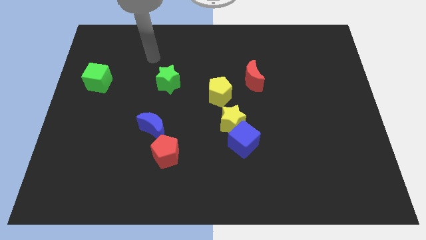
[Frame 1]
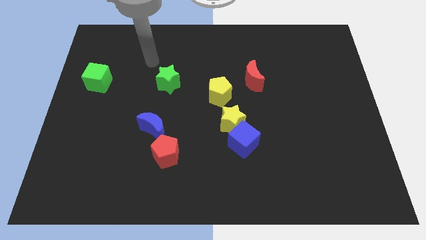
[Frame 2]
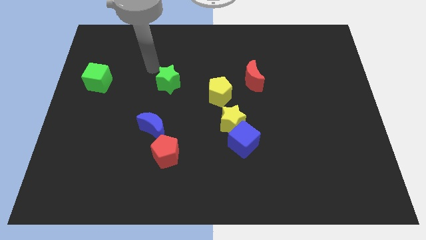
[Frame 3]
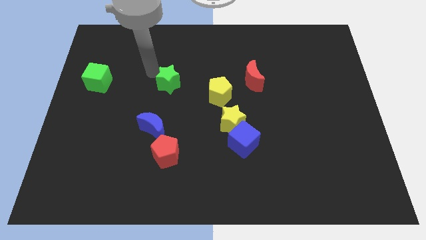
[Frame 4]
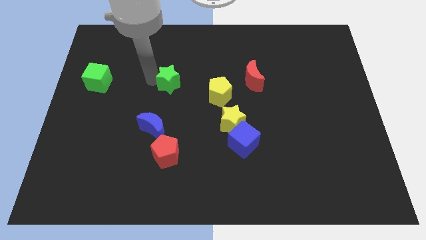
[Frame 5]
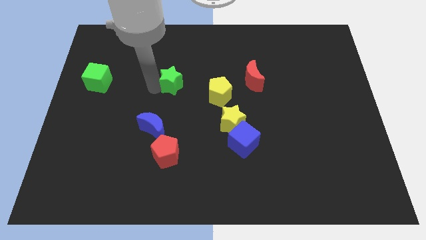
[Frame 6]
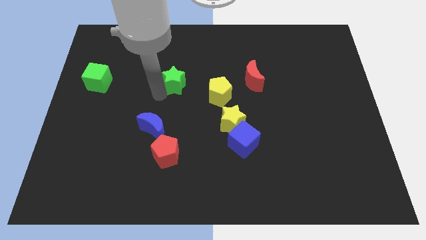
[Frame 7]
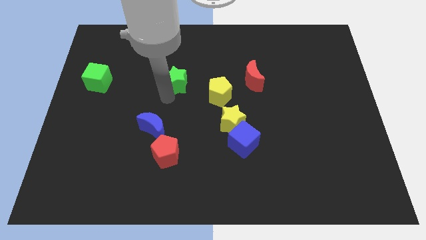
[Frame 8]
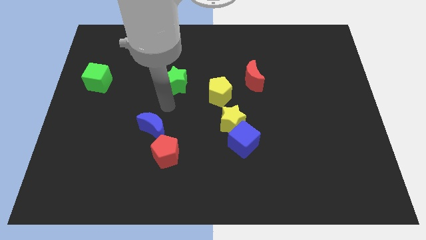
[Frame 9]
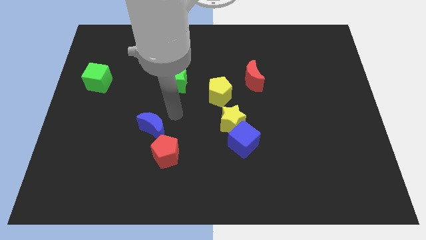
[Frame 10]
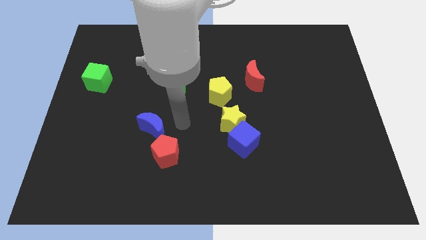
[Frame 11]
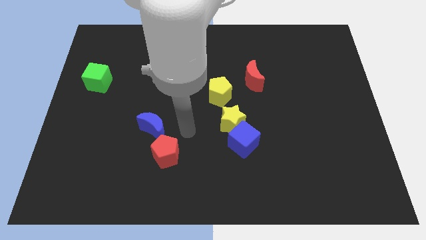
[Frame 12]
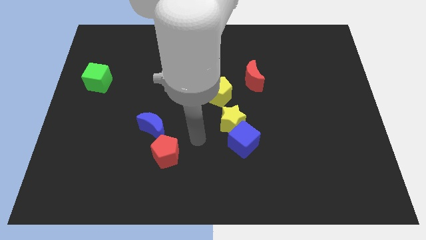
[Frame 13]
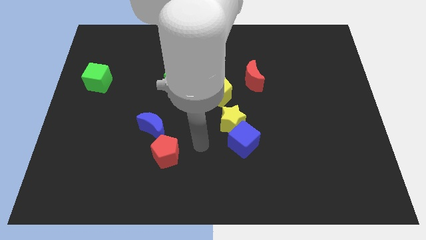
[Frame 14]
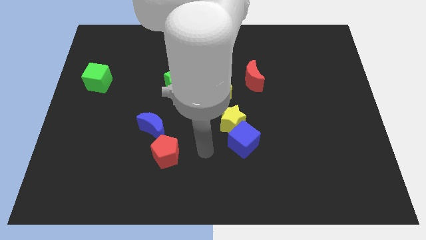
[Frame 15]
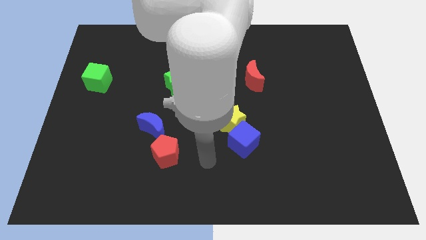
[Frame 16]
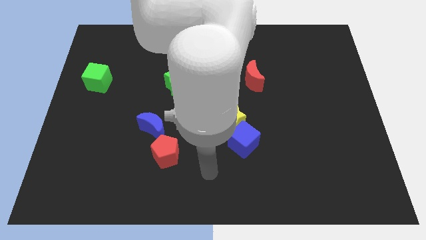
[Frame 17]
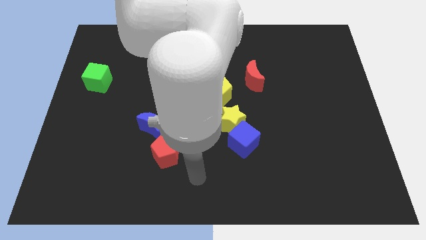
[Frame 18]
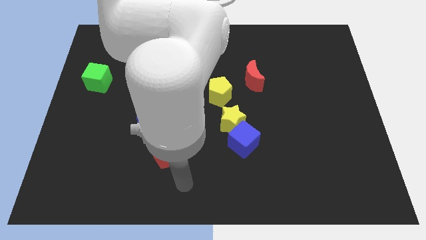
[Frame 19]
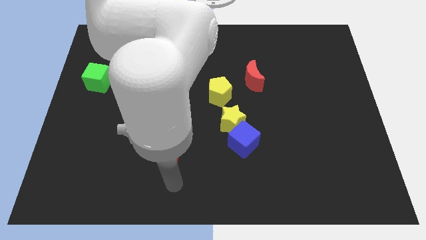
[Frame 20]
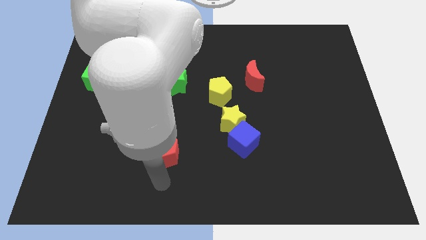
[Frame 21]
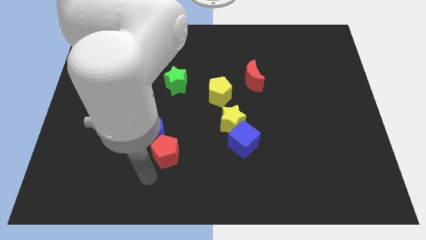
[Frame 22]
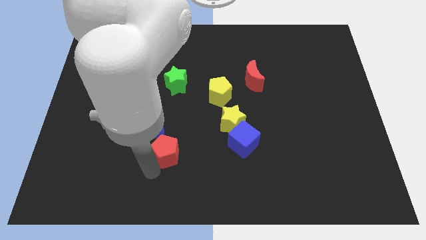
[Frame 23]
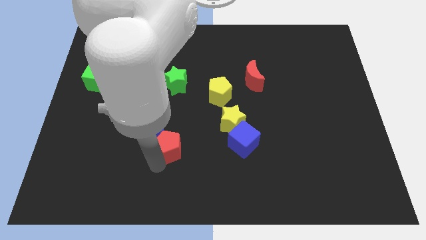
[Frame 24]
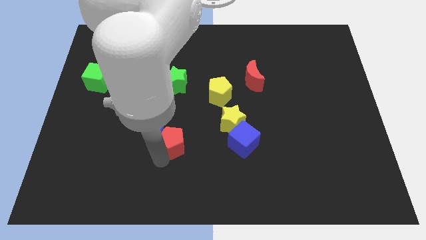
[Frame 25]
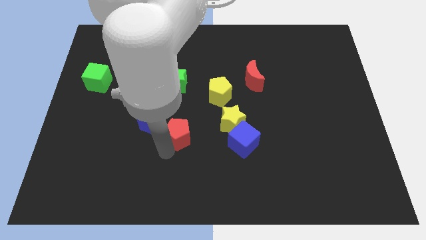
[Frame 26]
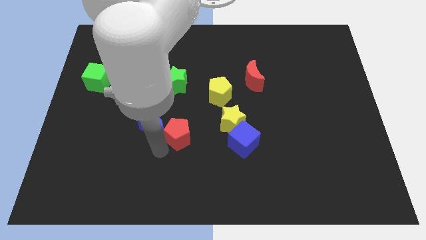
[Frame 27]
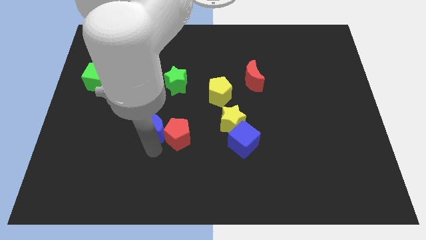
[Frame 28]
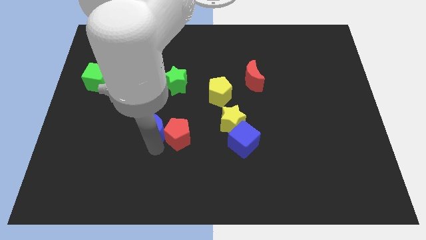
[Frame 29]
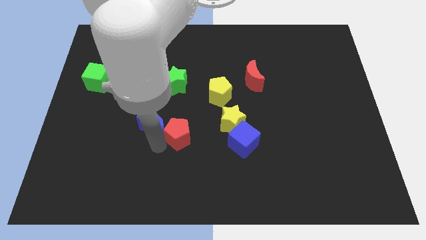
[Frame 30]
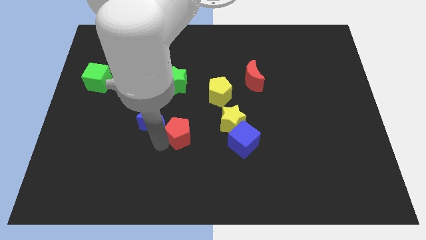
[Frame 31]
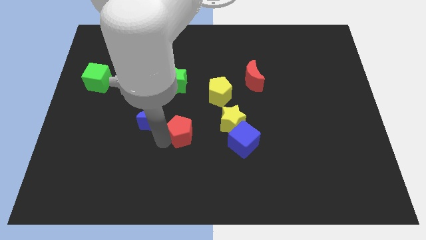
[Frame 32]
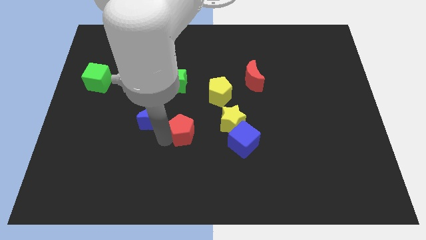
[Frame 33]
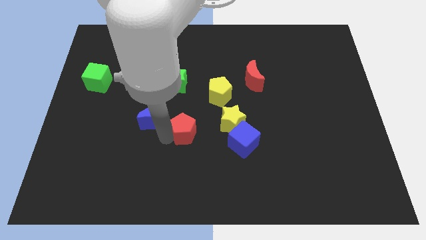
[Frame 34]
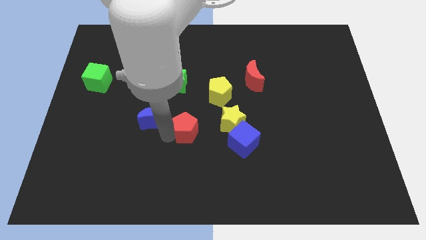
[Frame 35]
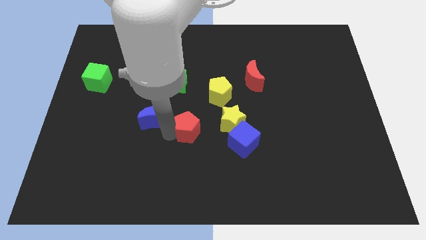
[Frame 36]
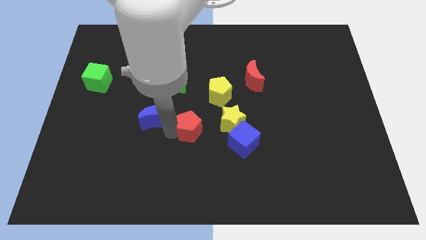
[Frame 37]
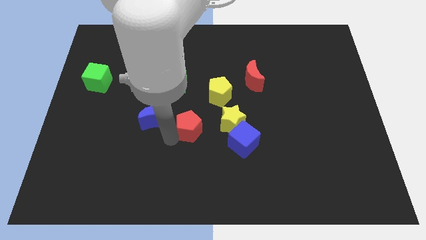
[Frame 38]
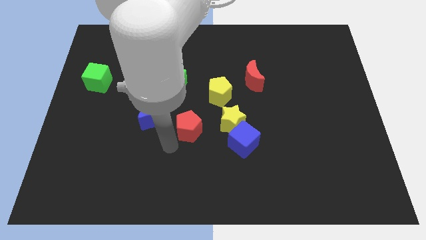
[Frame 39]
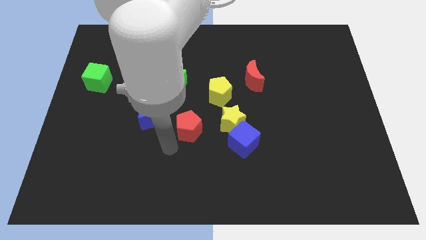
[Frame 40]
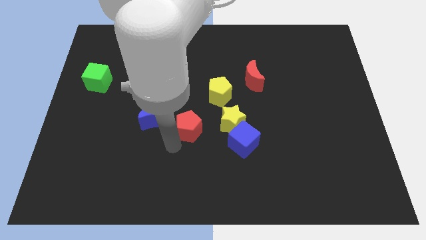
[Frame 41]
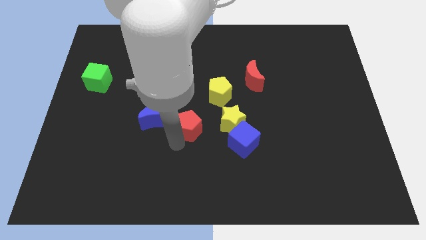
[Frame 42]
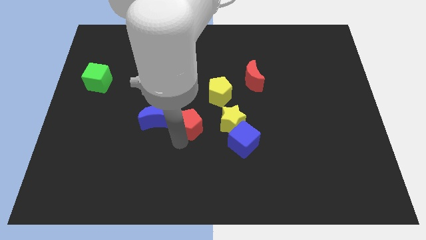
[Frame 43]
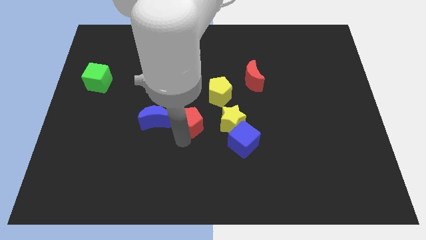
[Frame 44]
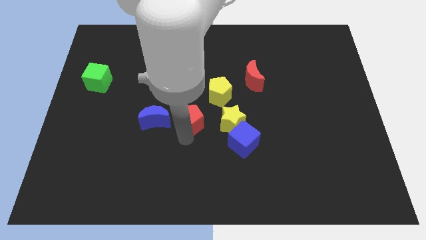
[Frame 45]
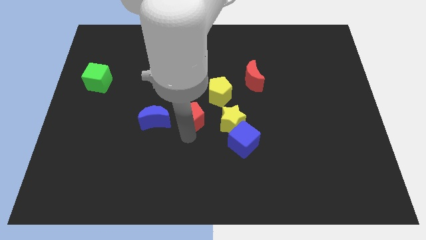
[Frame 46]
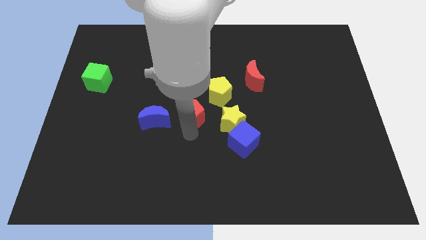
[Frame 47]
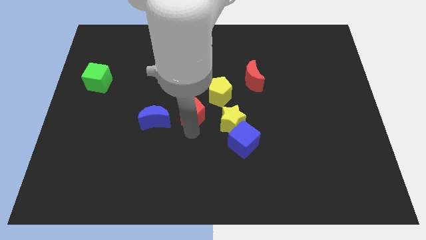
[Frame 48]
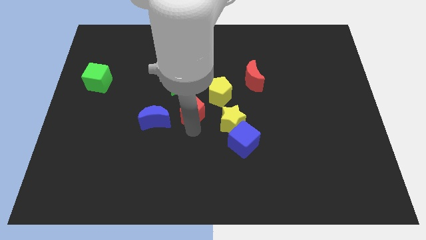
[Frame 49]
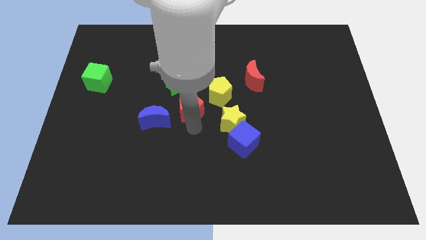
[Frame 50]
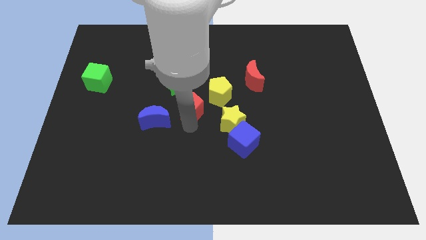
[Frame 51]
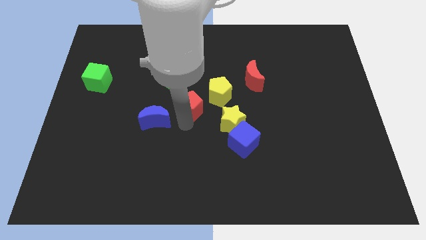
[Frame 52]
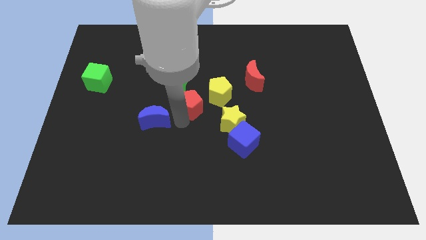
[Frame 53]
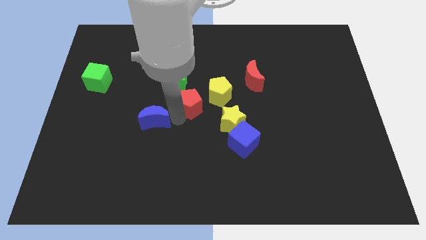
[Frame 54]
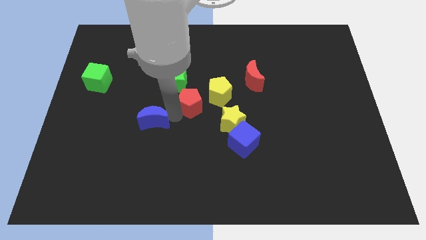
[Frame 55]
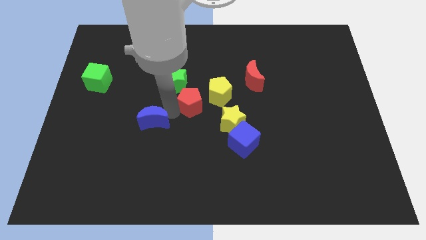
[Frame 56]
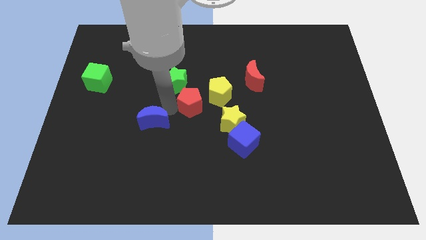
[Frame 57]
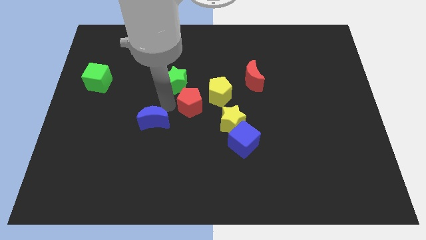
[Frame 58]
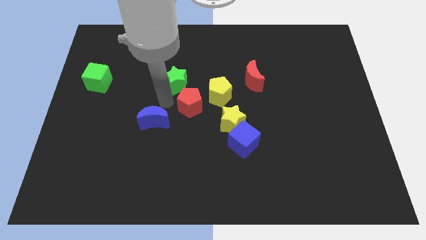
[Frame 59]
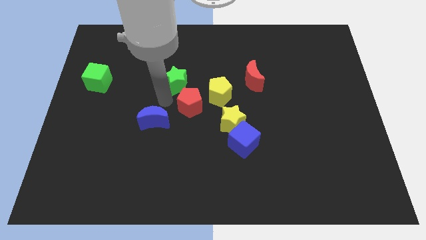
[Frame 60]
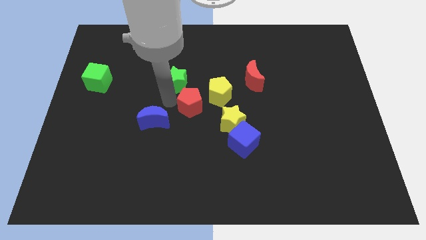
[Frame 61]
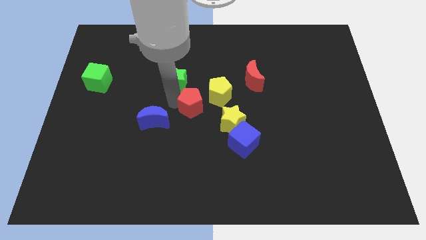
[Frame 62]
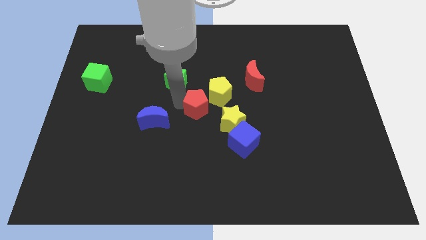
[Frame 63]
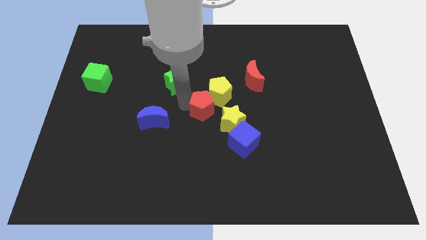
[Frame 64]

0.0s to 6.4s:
slide the red pentagon close to the yellow pentagon
